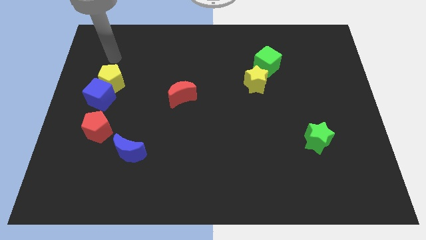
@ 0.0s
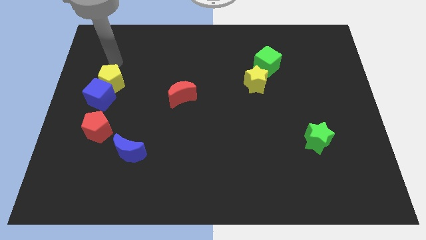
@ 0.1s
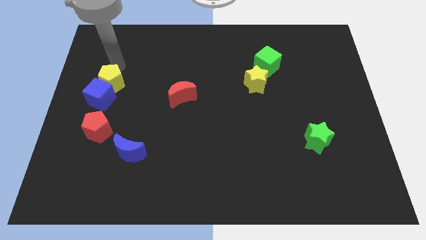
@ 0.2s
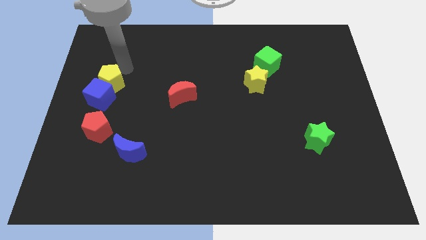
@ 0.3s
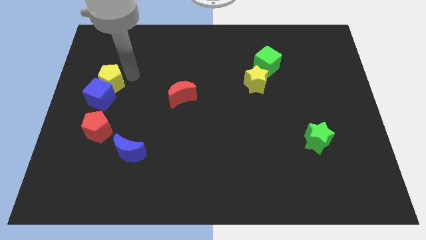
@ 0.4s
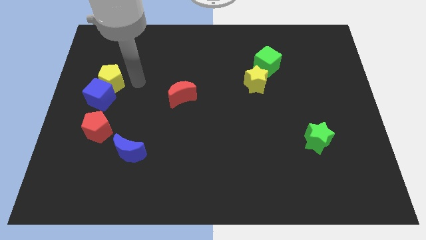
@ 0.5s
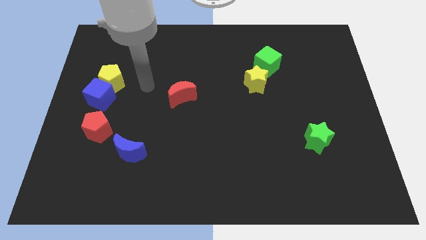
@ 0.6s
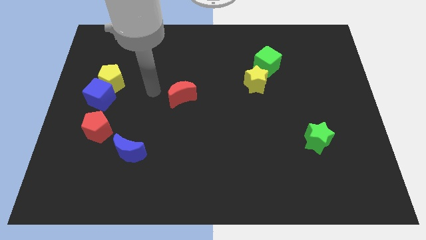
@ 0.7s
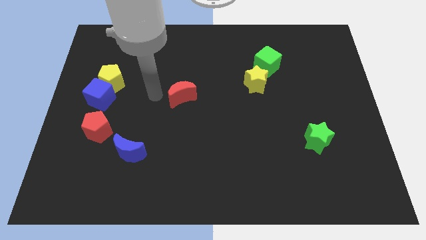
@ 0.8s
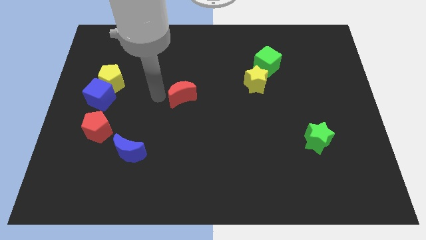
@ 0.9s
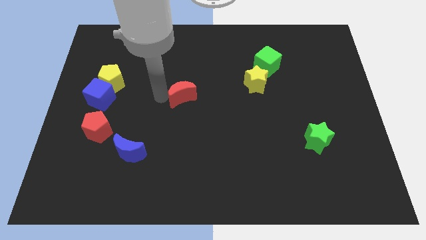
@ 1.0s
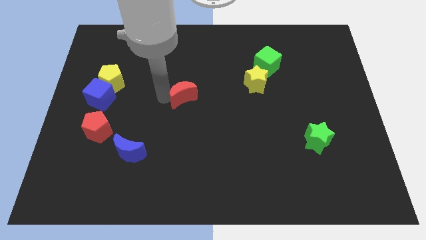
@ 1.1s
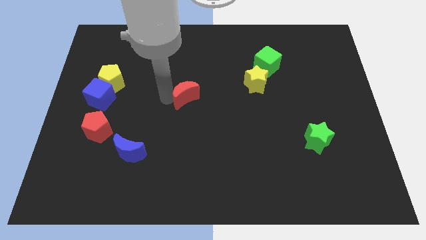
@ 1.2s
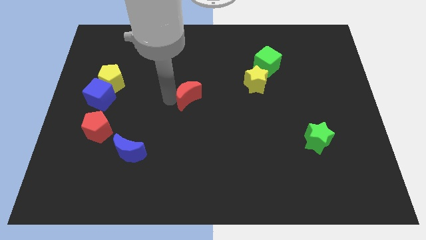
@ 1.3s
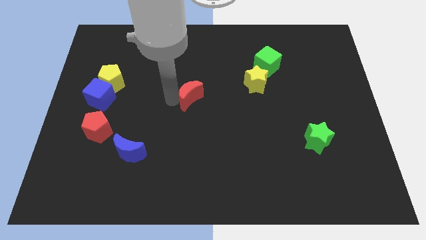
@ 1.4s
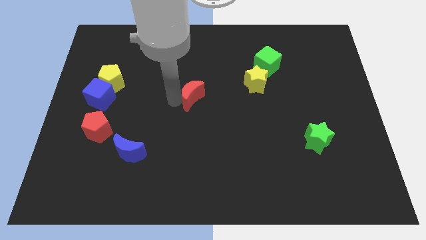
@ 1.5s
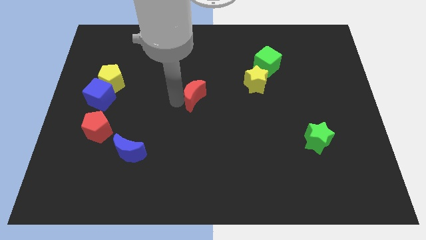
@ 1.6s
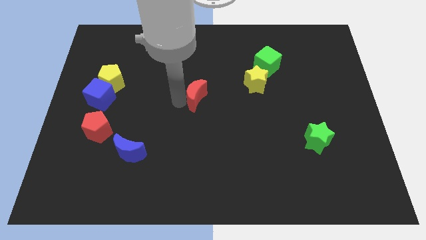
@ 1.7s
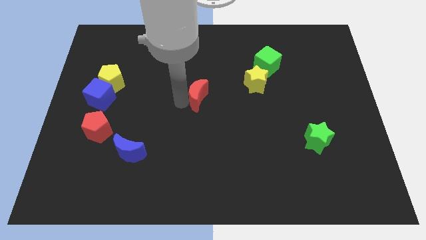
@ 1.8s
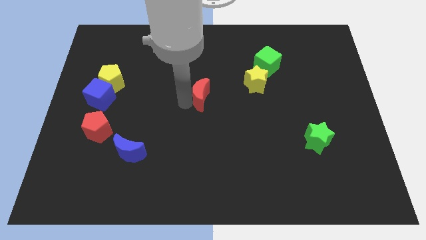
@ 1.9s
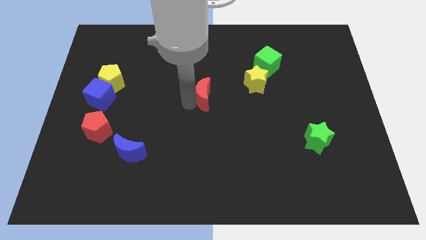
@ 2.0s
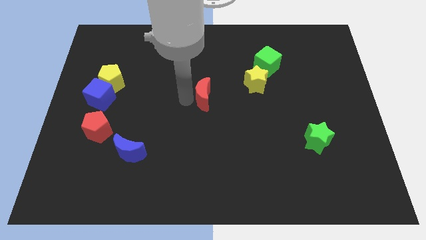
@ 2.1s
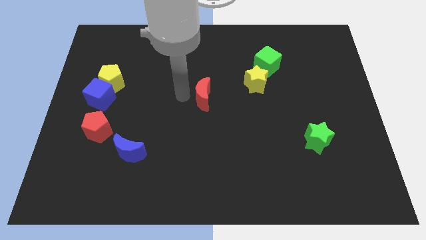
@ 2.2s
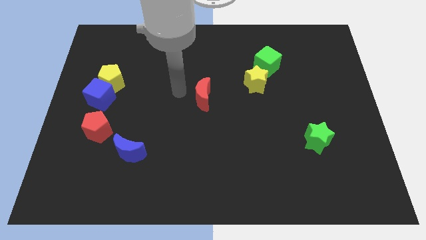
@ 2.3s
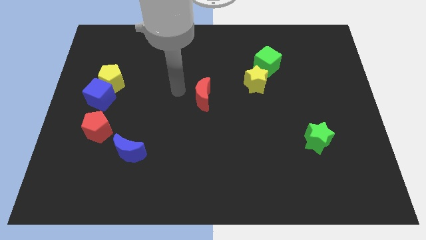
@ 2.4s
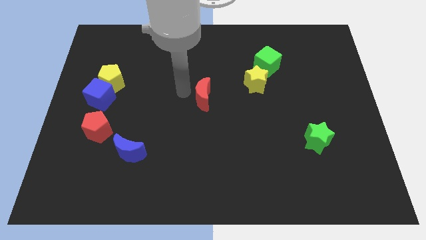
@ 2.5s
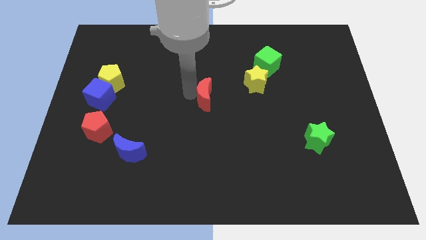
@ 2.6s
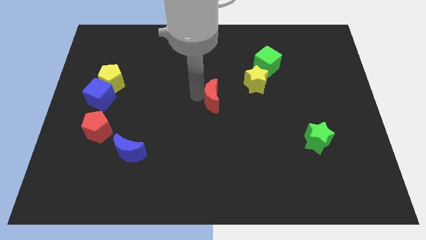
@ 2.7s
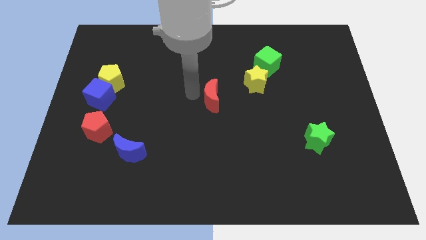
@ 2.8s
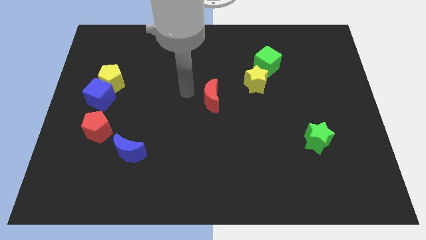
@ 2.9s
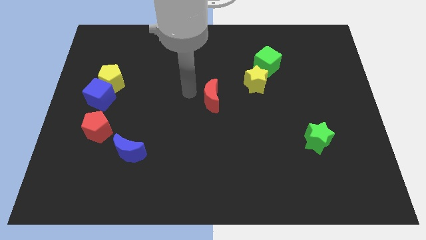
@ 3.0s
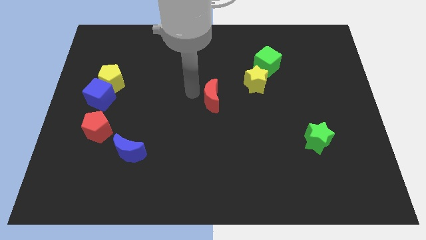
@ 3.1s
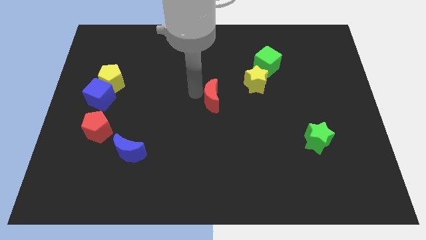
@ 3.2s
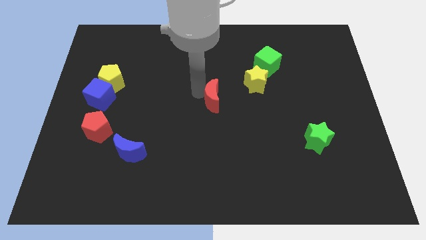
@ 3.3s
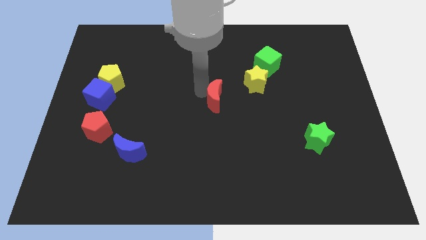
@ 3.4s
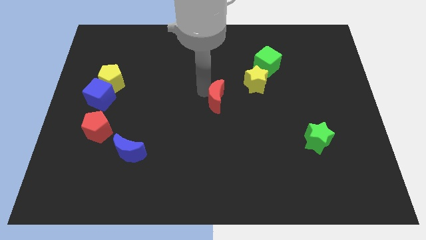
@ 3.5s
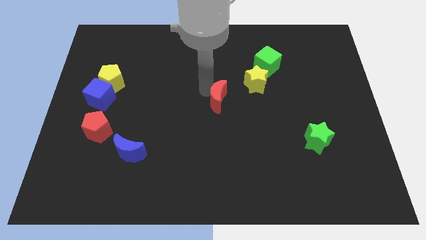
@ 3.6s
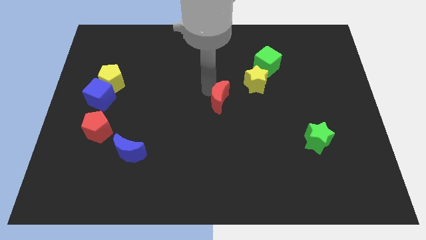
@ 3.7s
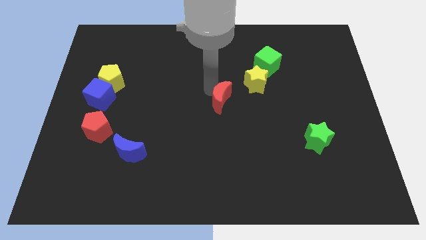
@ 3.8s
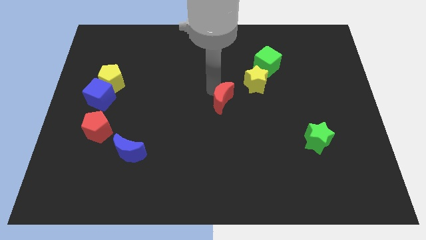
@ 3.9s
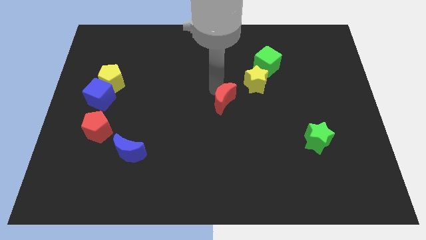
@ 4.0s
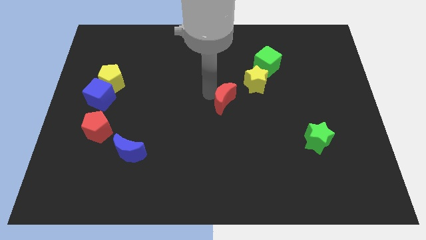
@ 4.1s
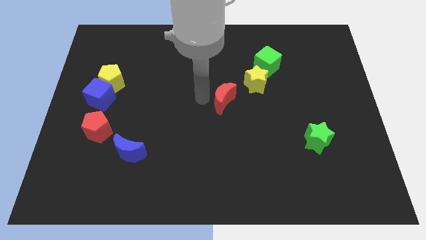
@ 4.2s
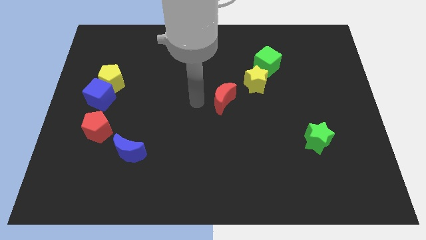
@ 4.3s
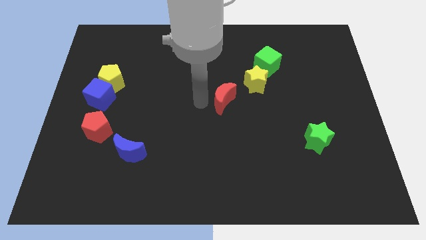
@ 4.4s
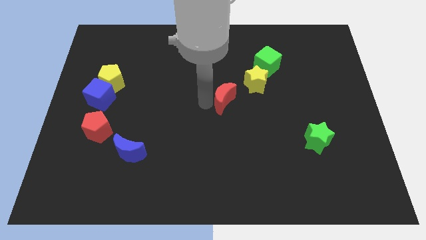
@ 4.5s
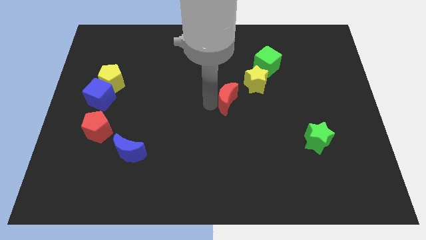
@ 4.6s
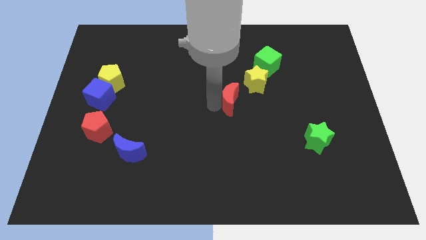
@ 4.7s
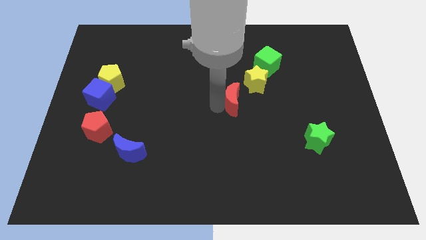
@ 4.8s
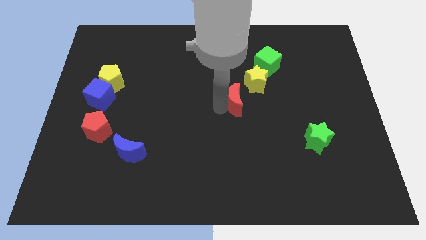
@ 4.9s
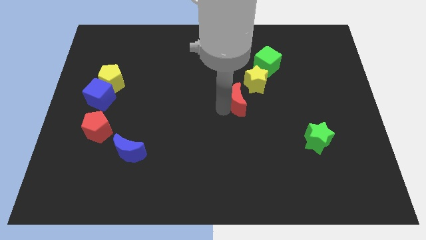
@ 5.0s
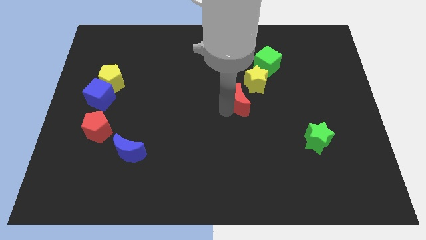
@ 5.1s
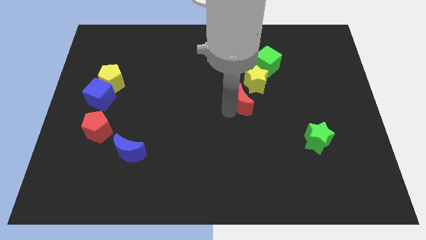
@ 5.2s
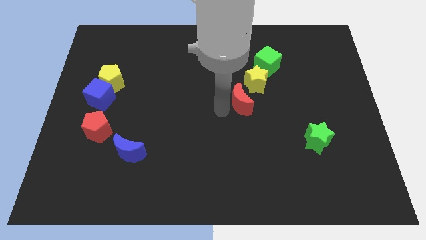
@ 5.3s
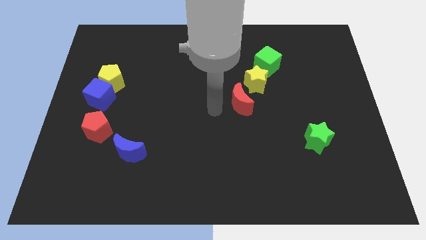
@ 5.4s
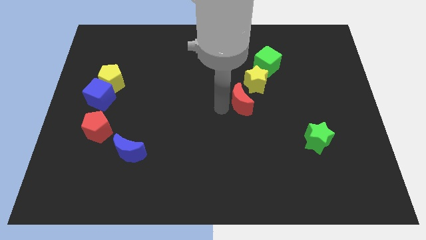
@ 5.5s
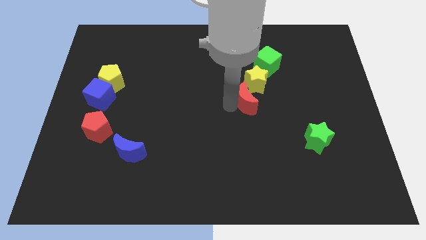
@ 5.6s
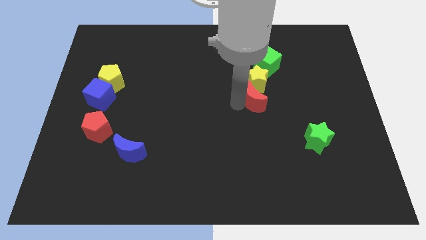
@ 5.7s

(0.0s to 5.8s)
put the red moon to the bottom of the green cube

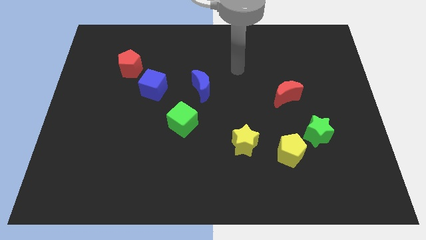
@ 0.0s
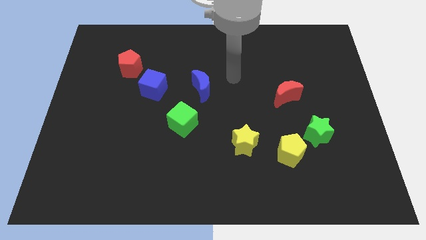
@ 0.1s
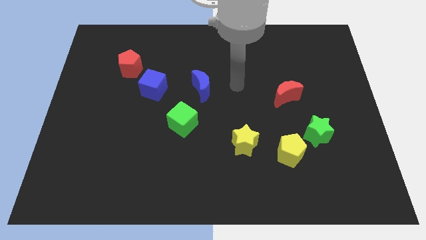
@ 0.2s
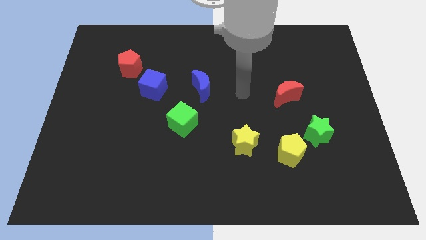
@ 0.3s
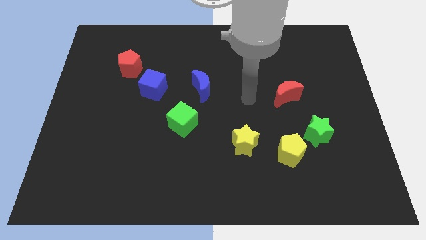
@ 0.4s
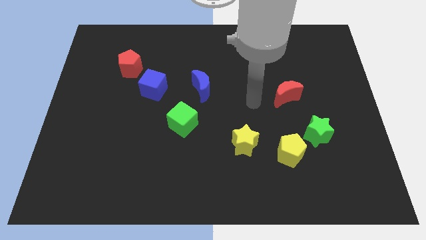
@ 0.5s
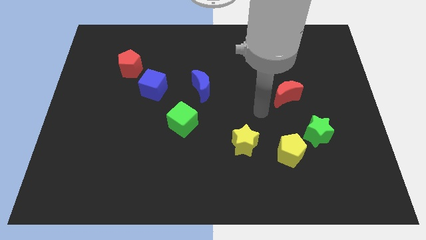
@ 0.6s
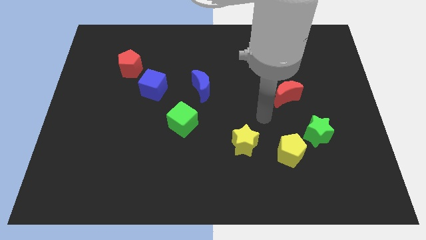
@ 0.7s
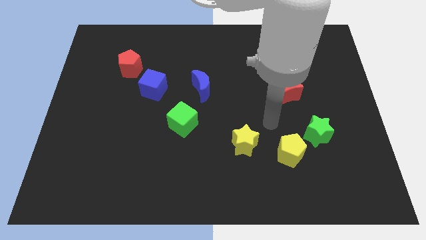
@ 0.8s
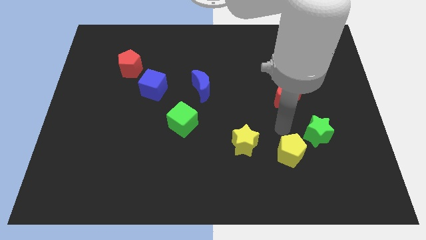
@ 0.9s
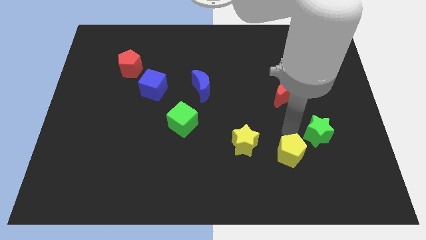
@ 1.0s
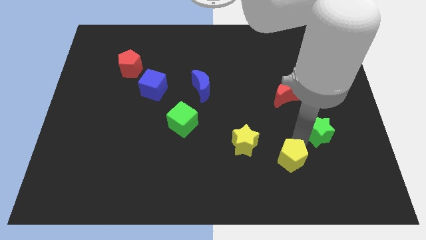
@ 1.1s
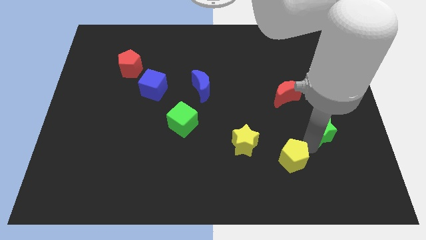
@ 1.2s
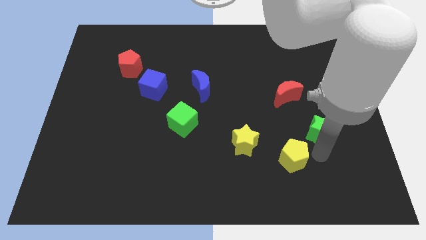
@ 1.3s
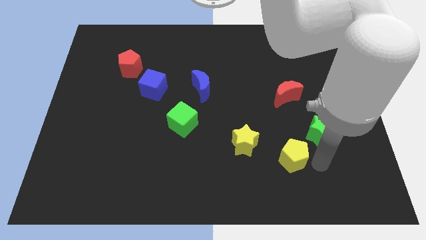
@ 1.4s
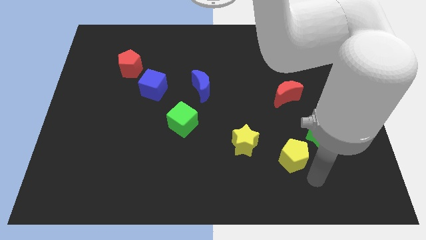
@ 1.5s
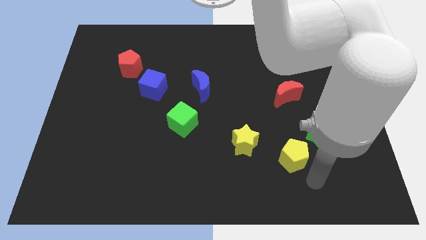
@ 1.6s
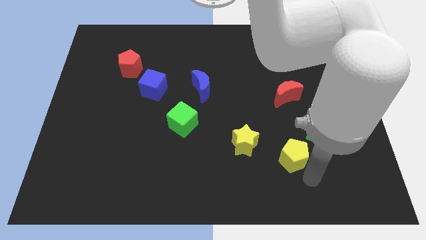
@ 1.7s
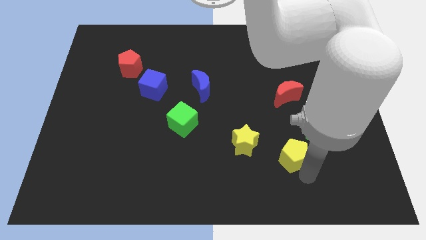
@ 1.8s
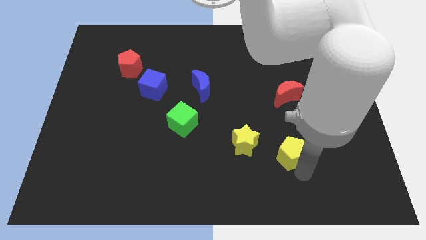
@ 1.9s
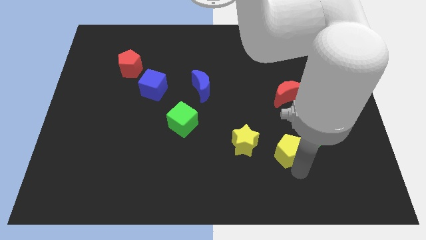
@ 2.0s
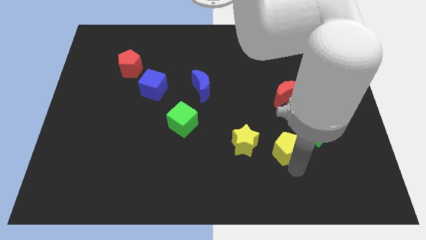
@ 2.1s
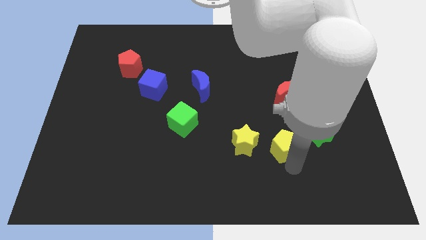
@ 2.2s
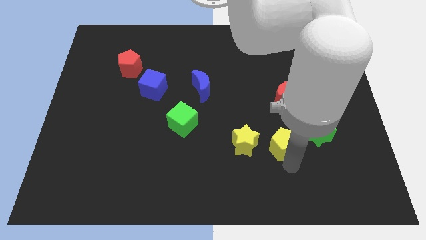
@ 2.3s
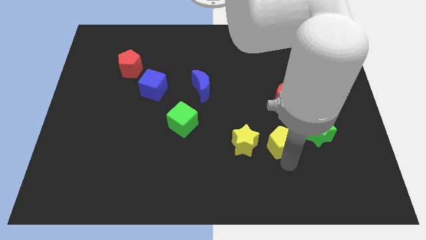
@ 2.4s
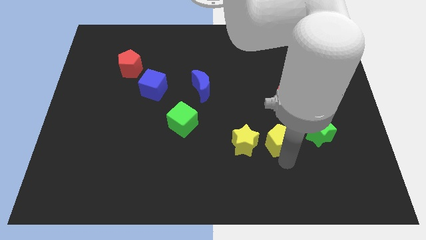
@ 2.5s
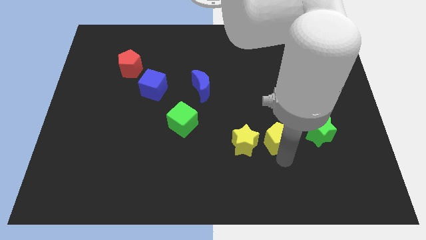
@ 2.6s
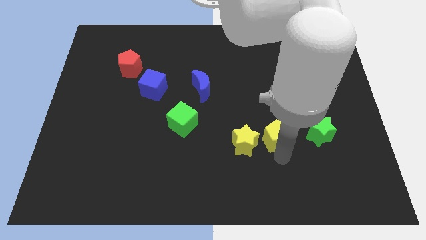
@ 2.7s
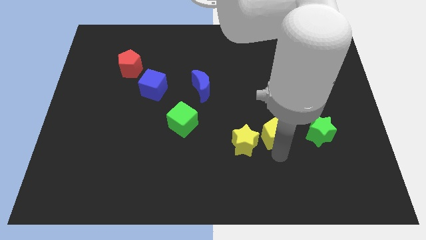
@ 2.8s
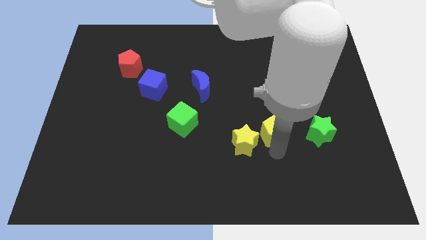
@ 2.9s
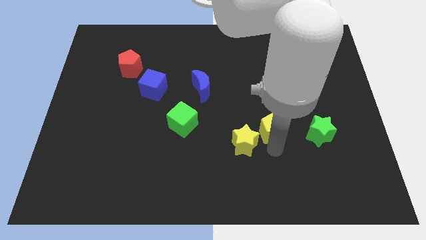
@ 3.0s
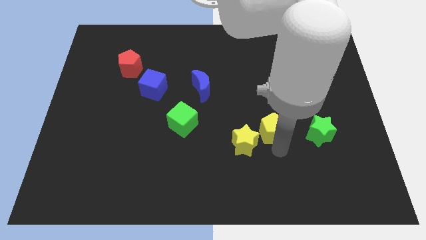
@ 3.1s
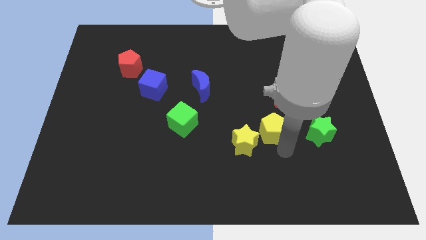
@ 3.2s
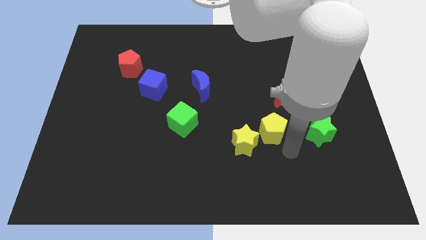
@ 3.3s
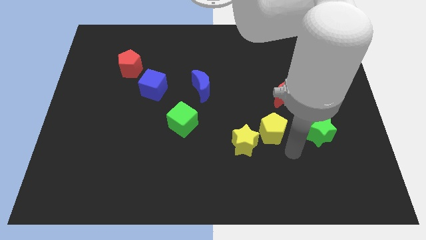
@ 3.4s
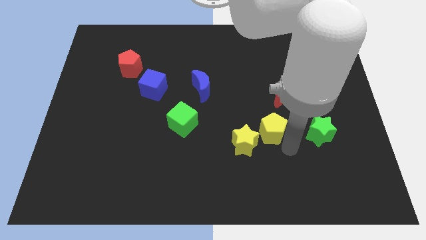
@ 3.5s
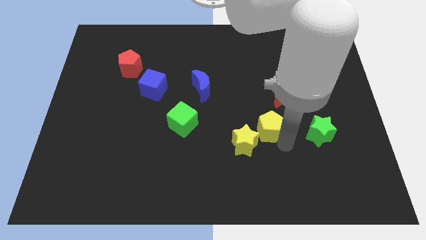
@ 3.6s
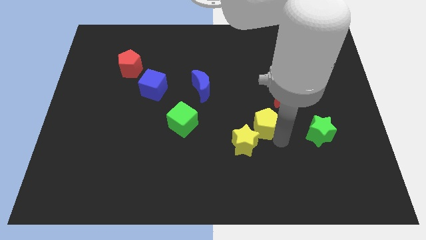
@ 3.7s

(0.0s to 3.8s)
slide the yellow pentagon above the yellow star
